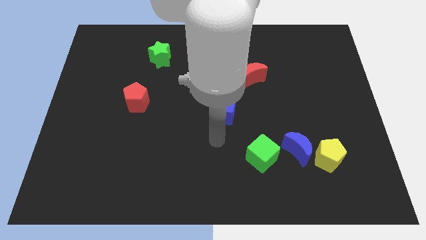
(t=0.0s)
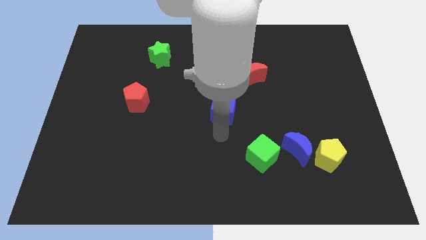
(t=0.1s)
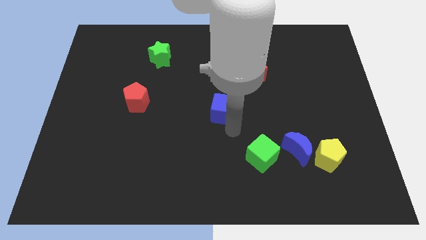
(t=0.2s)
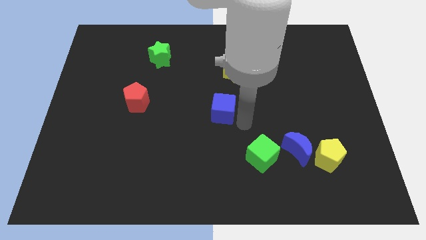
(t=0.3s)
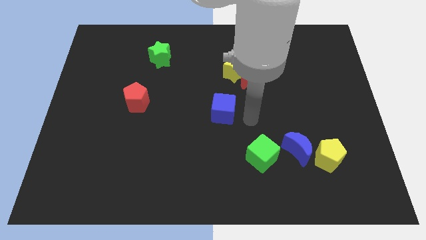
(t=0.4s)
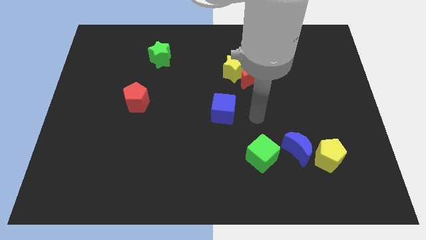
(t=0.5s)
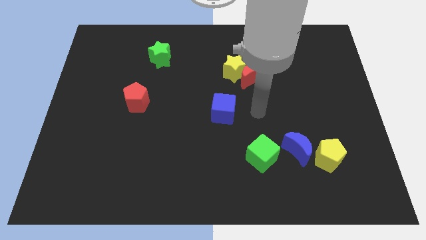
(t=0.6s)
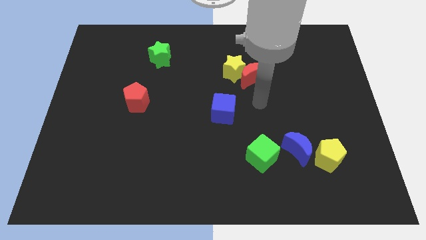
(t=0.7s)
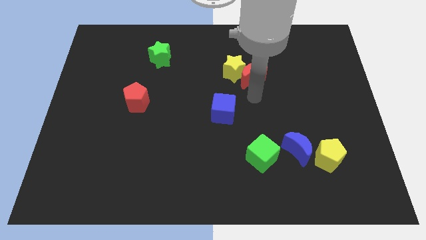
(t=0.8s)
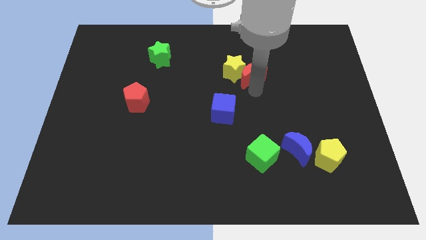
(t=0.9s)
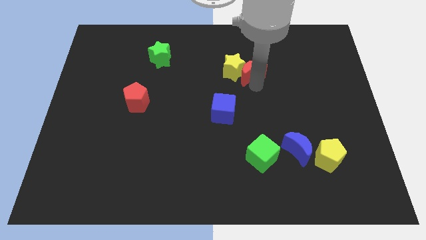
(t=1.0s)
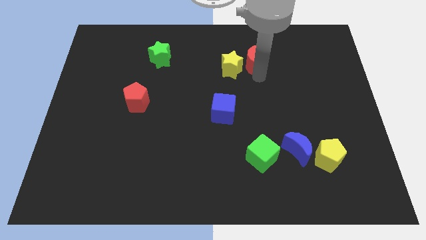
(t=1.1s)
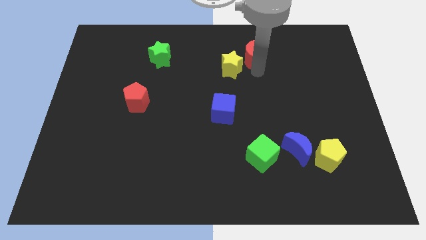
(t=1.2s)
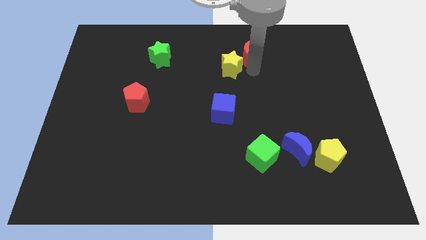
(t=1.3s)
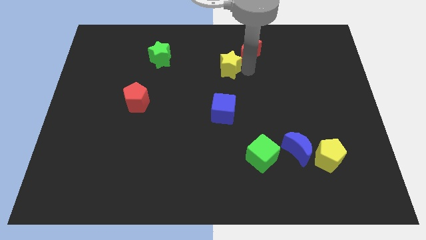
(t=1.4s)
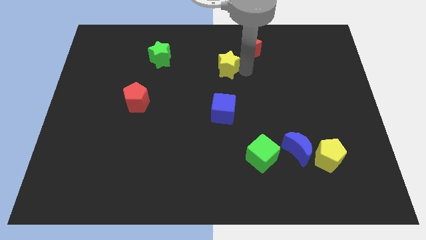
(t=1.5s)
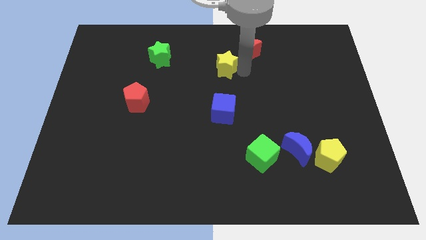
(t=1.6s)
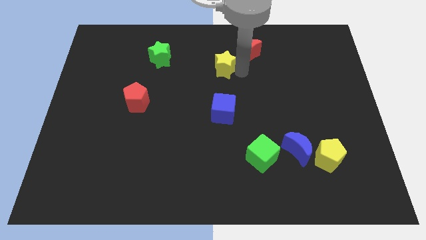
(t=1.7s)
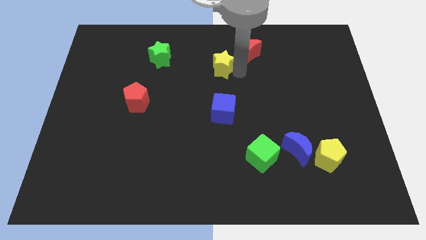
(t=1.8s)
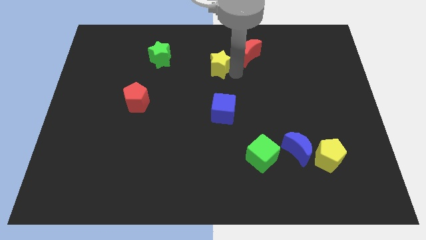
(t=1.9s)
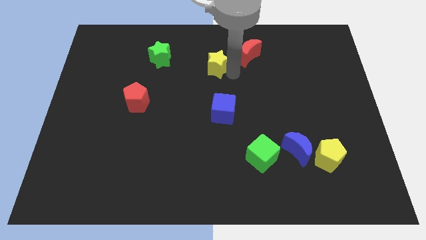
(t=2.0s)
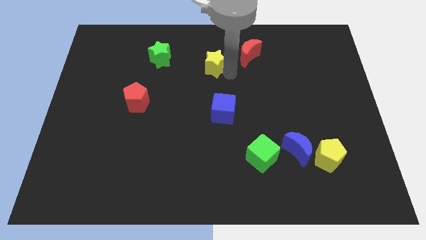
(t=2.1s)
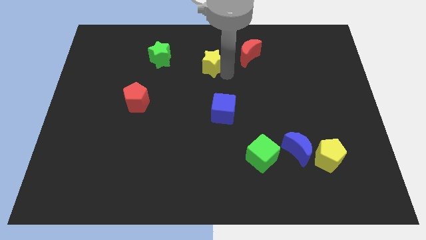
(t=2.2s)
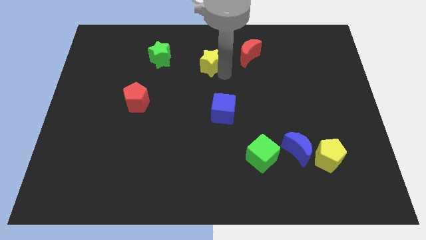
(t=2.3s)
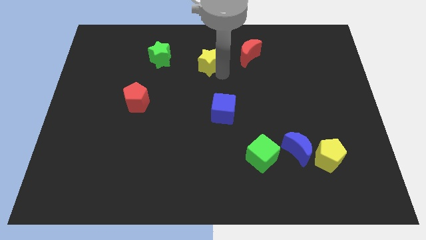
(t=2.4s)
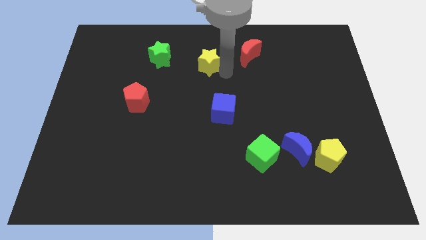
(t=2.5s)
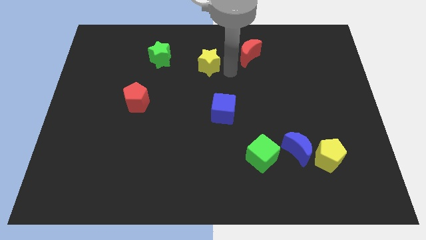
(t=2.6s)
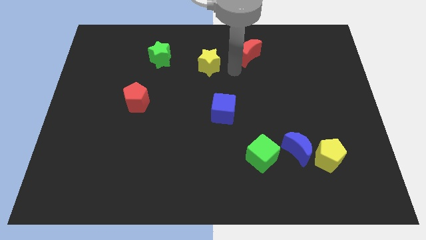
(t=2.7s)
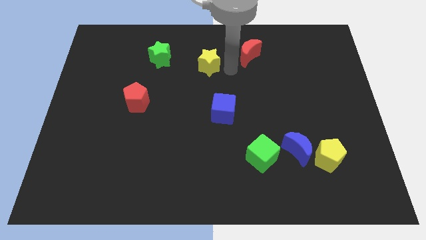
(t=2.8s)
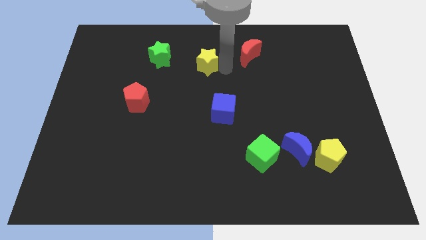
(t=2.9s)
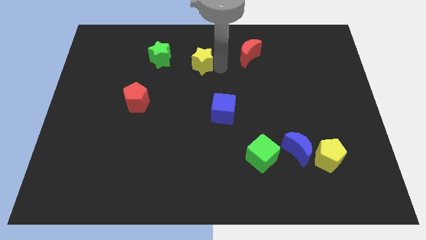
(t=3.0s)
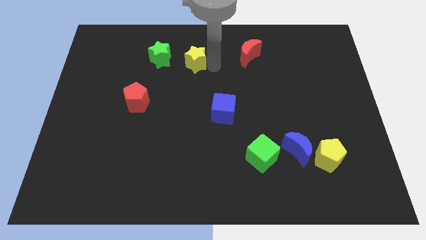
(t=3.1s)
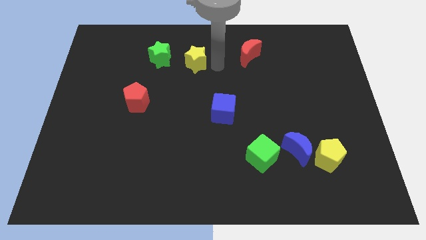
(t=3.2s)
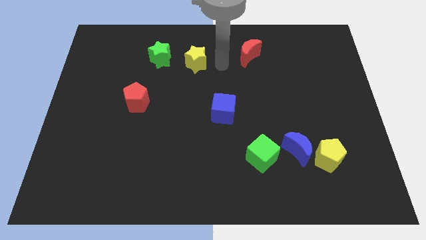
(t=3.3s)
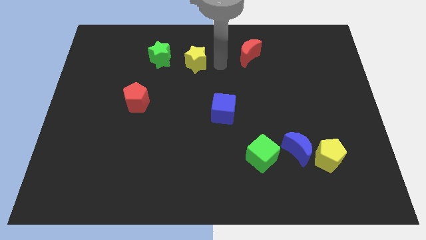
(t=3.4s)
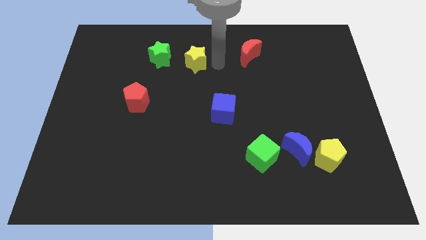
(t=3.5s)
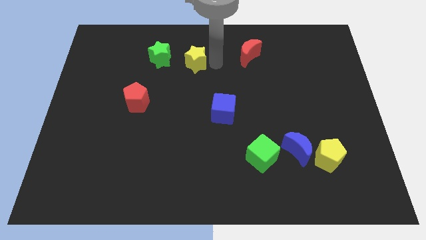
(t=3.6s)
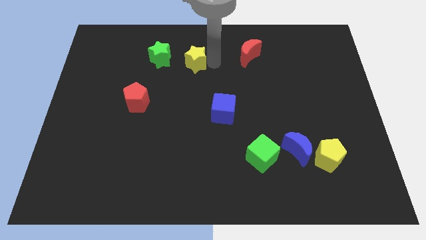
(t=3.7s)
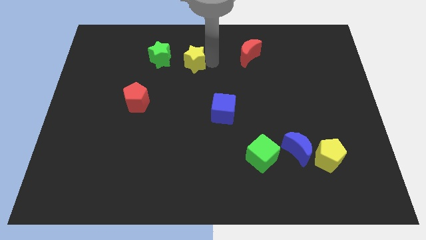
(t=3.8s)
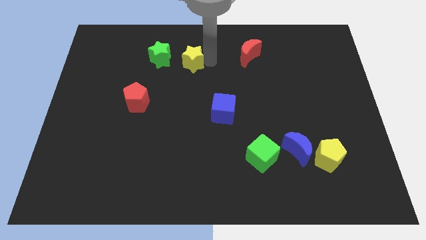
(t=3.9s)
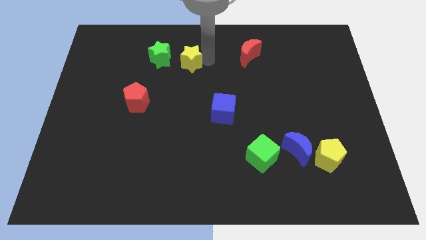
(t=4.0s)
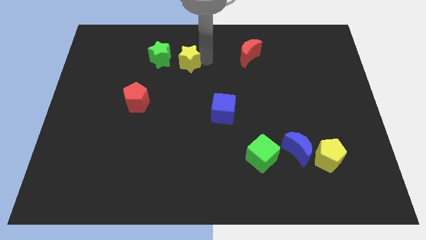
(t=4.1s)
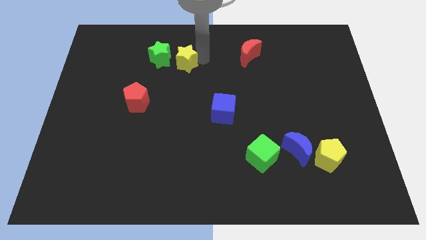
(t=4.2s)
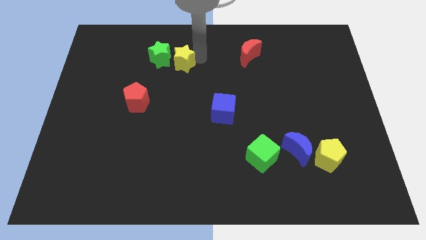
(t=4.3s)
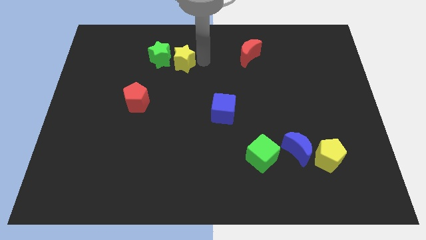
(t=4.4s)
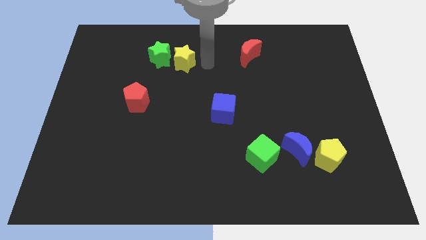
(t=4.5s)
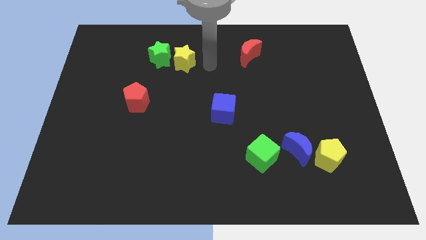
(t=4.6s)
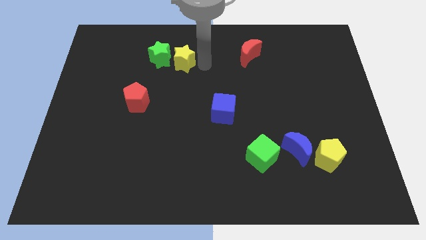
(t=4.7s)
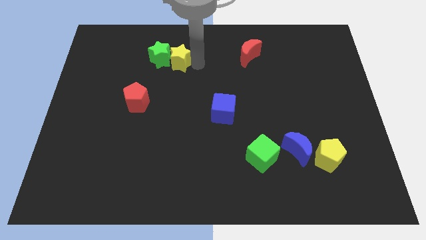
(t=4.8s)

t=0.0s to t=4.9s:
slide the yellow star close to the green star

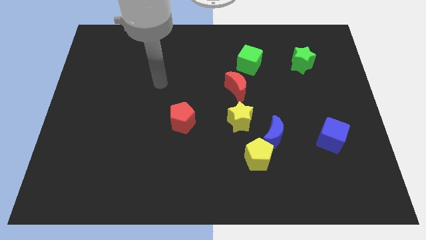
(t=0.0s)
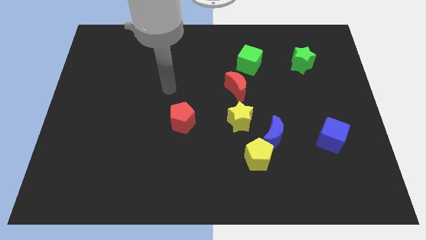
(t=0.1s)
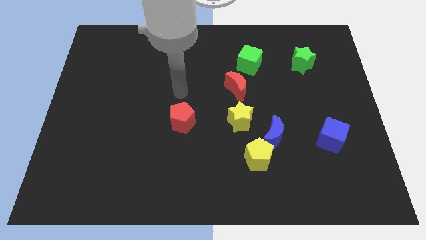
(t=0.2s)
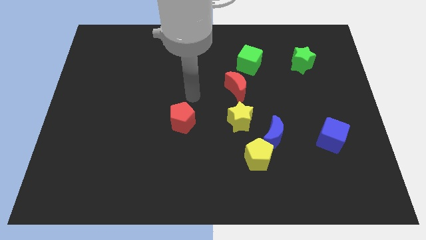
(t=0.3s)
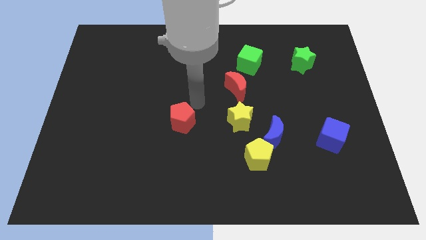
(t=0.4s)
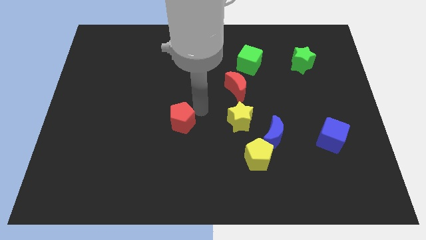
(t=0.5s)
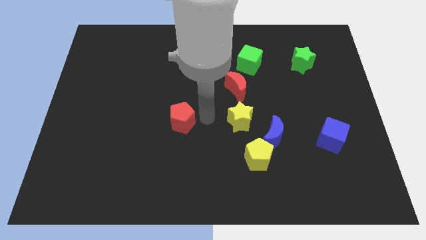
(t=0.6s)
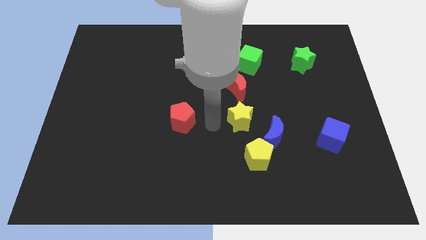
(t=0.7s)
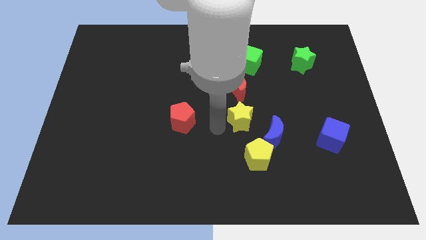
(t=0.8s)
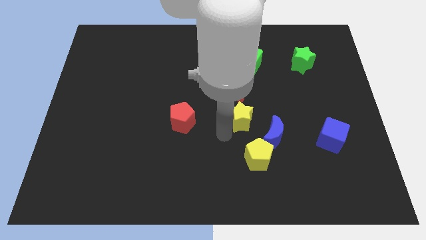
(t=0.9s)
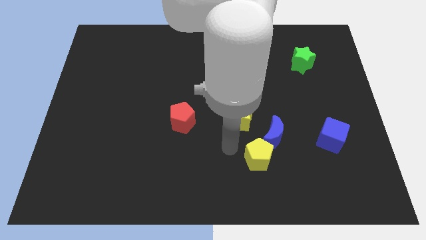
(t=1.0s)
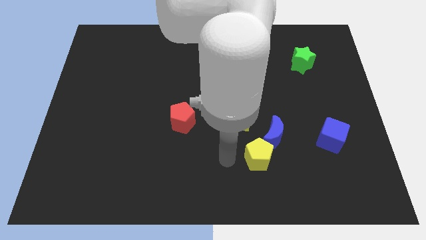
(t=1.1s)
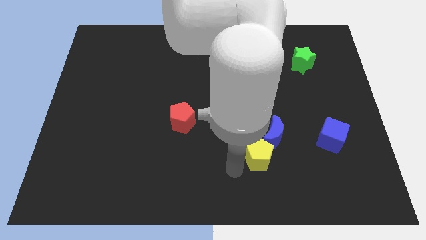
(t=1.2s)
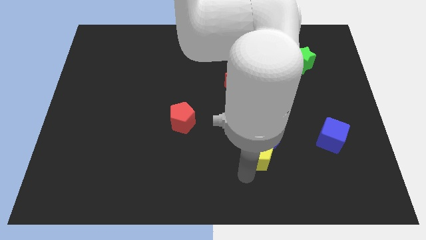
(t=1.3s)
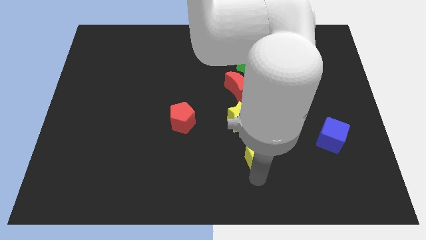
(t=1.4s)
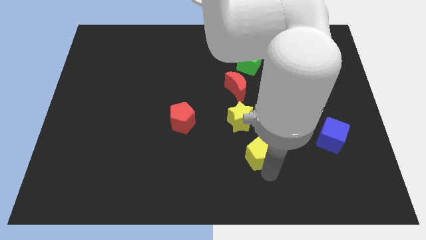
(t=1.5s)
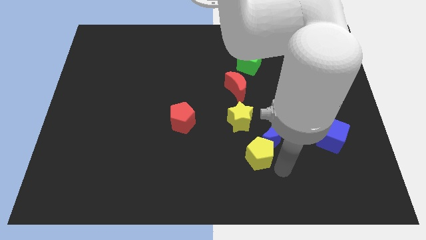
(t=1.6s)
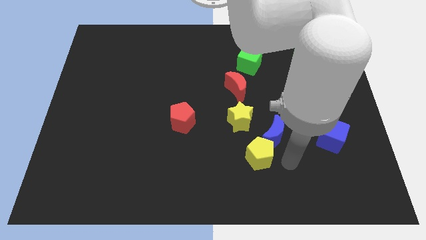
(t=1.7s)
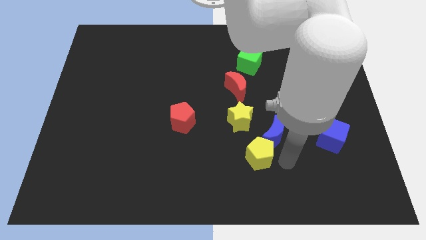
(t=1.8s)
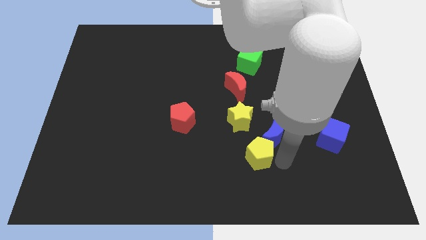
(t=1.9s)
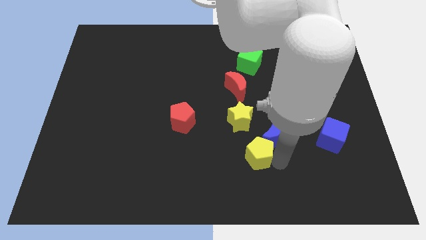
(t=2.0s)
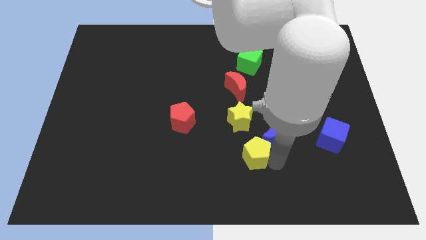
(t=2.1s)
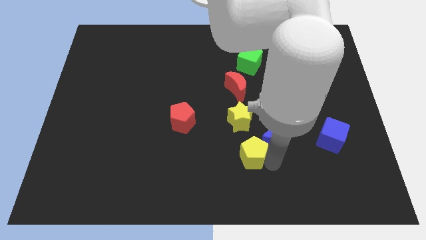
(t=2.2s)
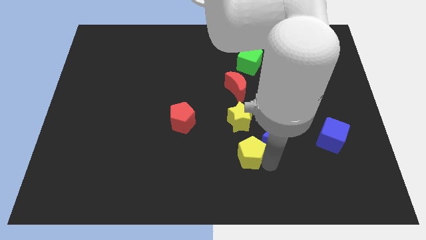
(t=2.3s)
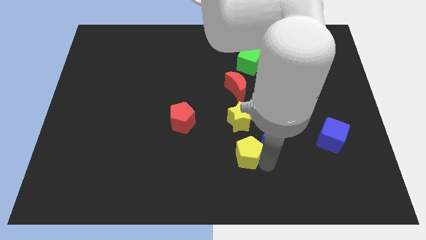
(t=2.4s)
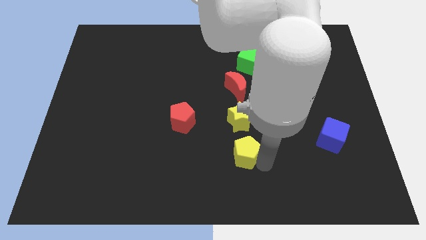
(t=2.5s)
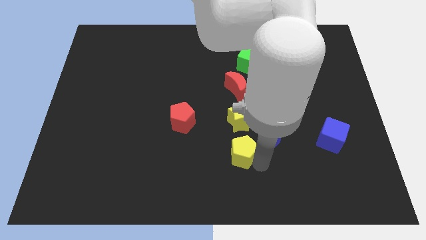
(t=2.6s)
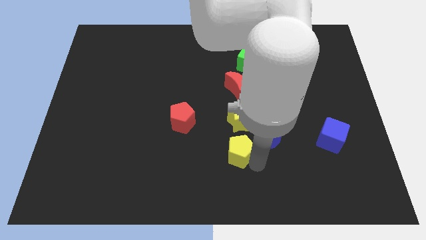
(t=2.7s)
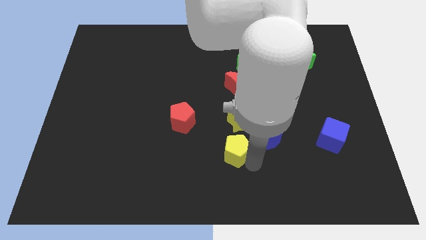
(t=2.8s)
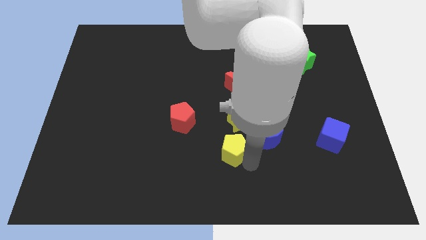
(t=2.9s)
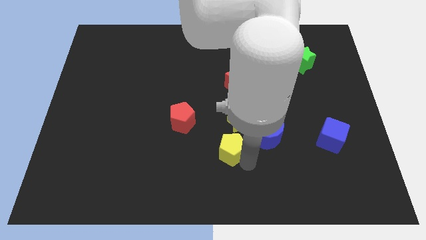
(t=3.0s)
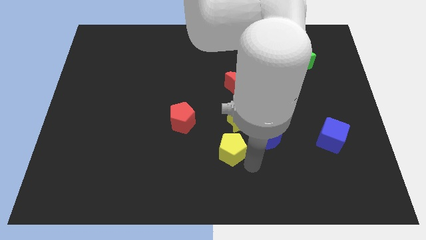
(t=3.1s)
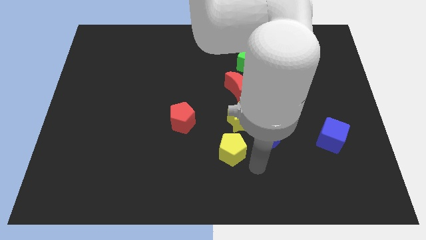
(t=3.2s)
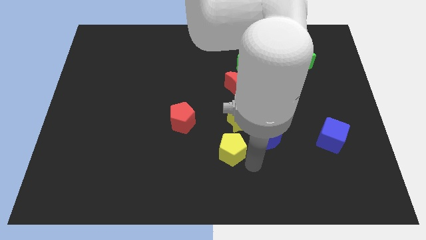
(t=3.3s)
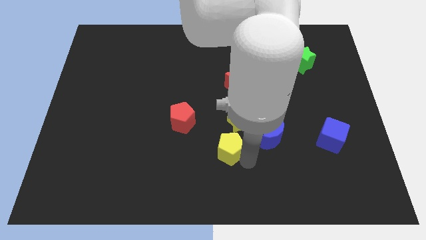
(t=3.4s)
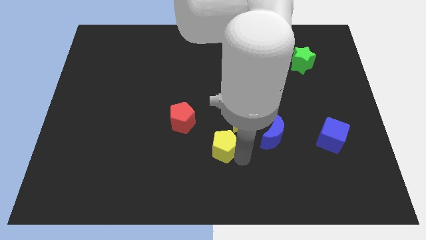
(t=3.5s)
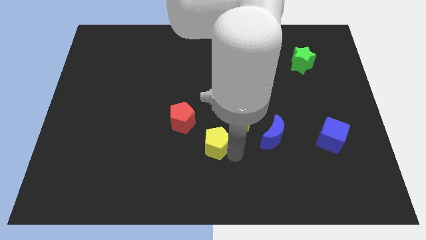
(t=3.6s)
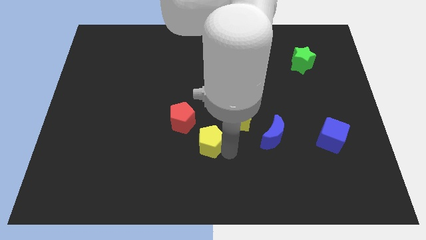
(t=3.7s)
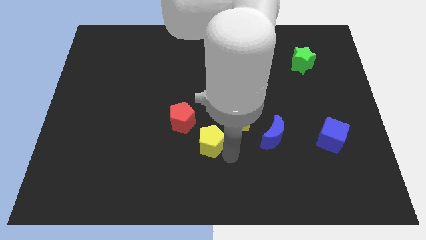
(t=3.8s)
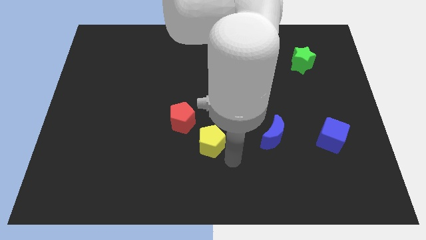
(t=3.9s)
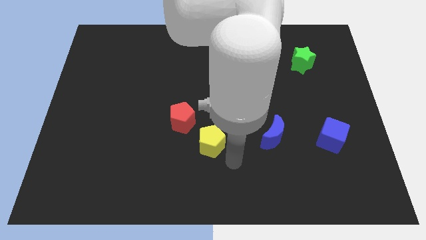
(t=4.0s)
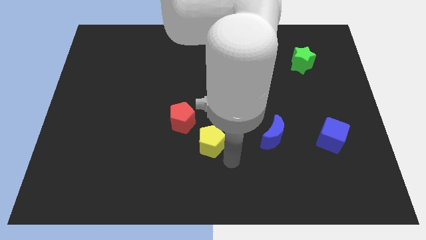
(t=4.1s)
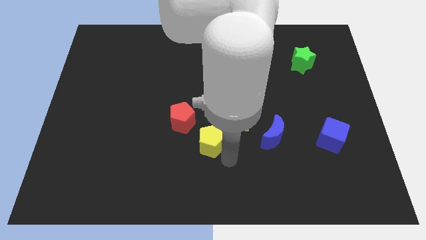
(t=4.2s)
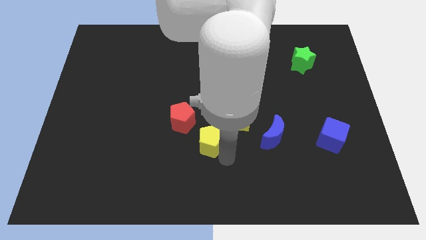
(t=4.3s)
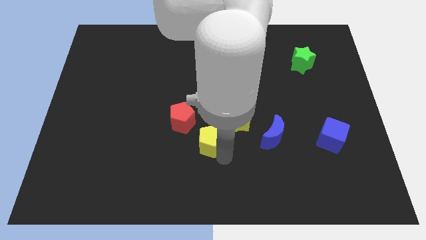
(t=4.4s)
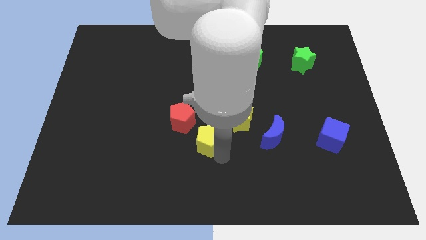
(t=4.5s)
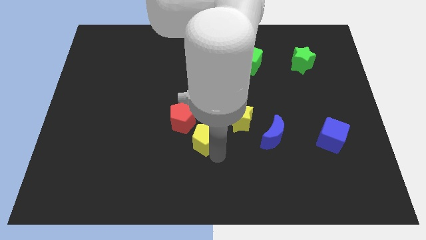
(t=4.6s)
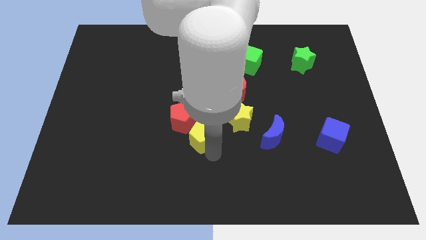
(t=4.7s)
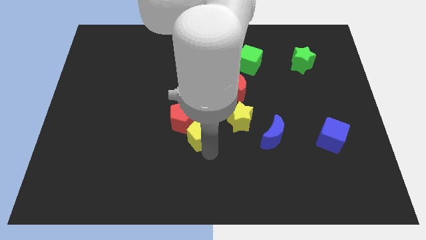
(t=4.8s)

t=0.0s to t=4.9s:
move the yellow pentagon next to the red pentagon
